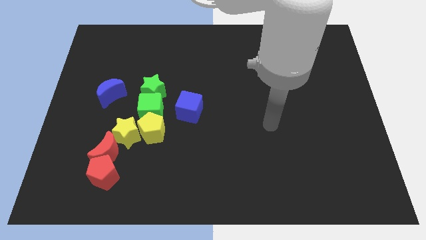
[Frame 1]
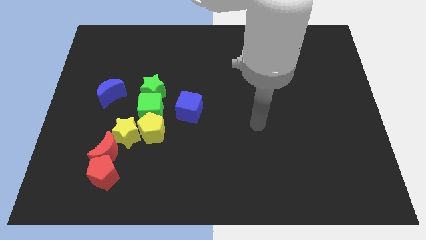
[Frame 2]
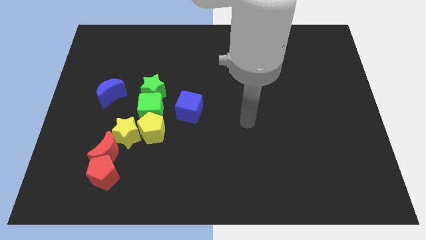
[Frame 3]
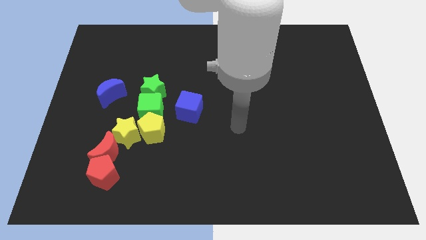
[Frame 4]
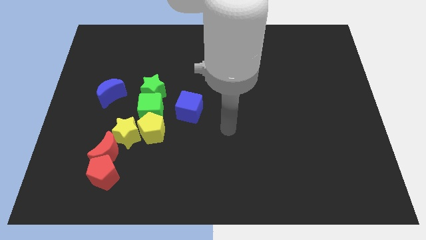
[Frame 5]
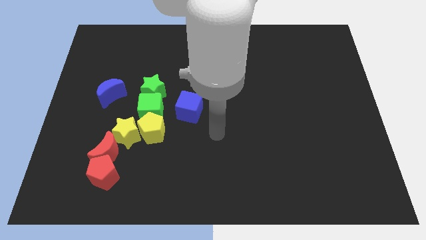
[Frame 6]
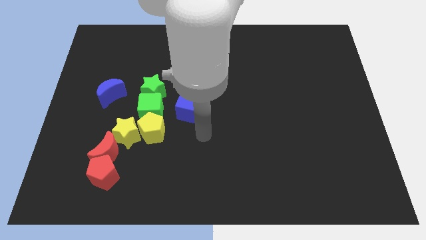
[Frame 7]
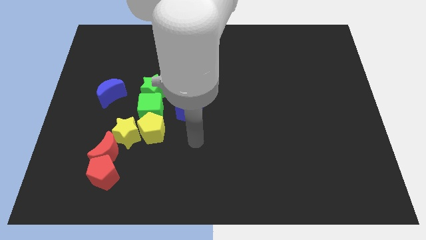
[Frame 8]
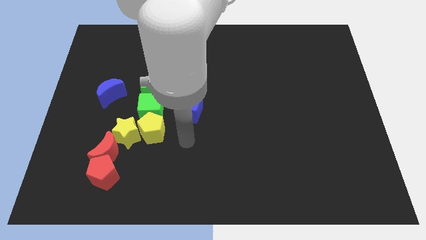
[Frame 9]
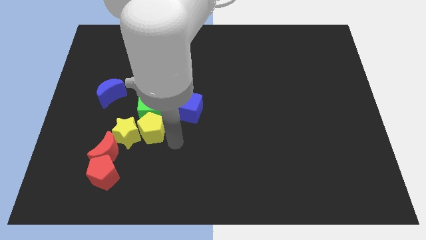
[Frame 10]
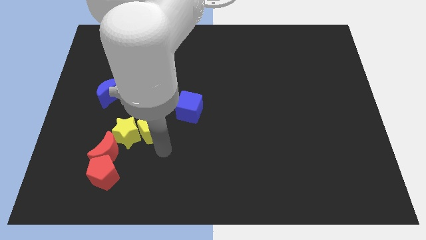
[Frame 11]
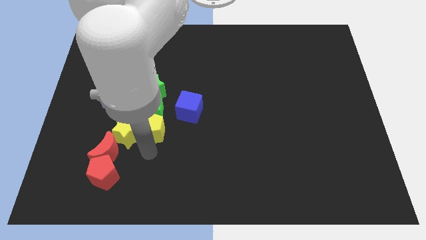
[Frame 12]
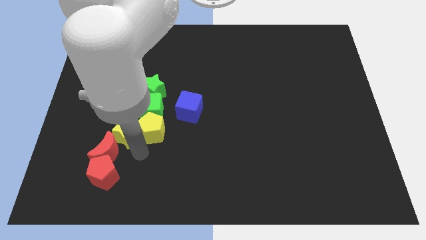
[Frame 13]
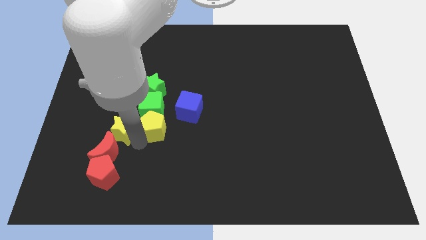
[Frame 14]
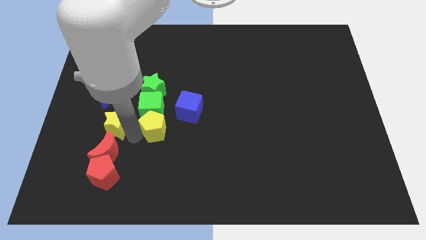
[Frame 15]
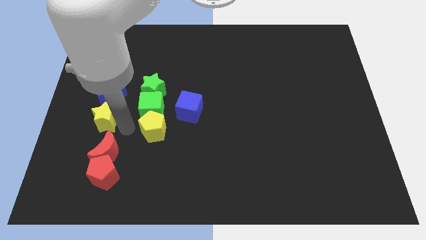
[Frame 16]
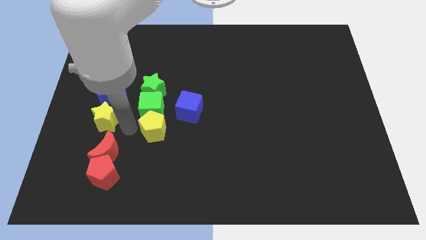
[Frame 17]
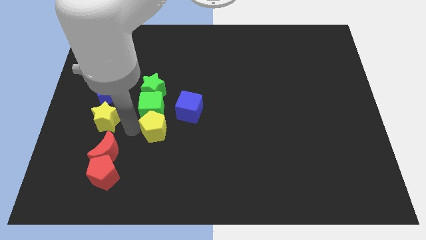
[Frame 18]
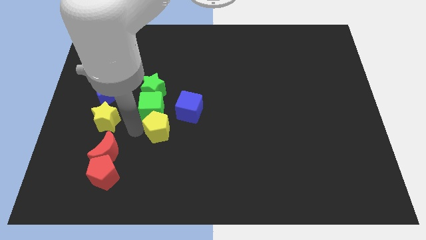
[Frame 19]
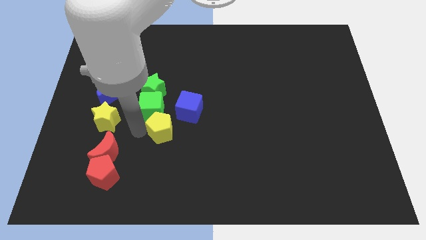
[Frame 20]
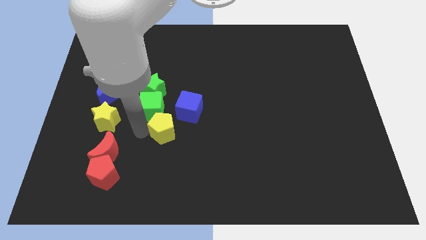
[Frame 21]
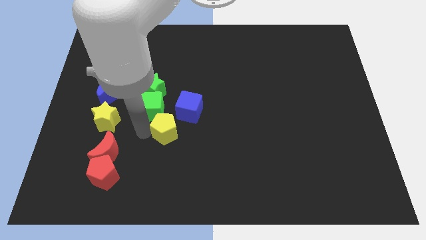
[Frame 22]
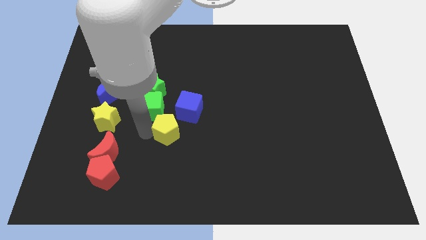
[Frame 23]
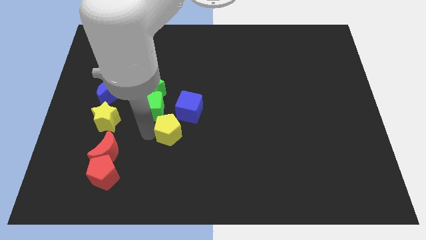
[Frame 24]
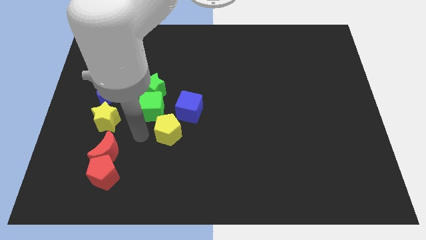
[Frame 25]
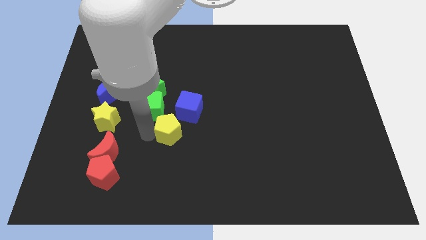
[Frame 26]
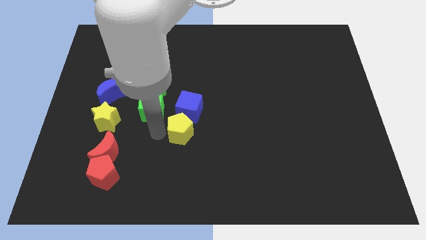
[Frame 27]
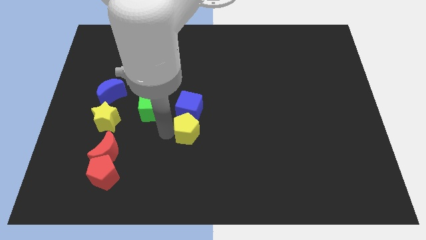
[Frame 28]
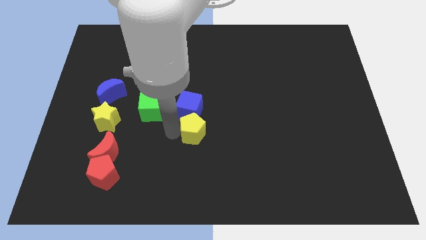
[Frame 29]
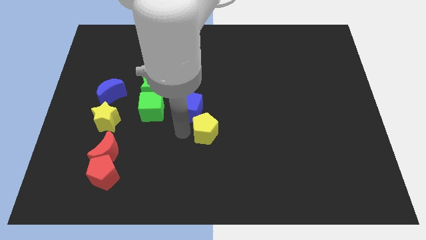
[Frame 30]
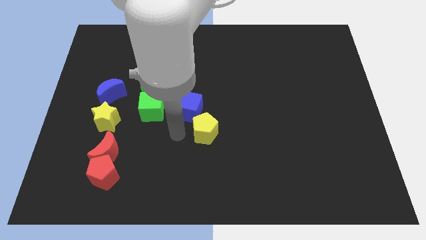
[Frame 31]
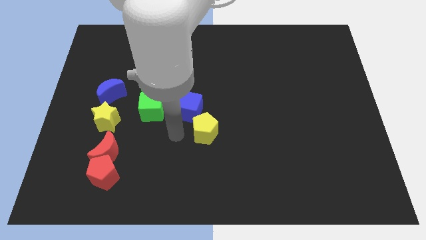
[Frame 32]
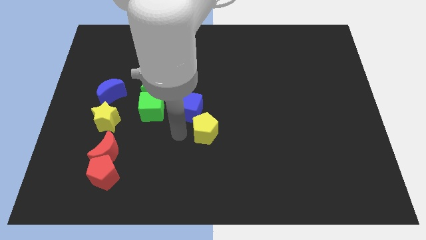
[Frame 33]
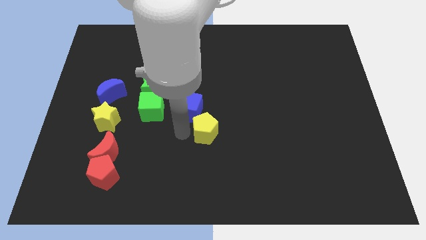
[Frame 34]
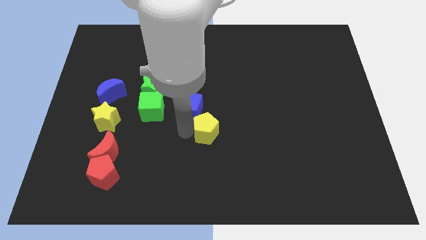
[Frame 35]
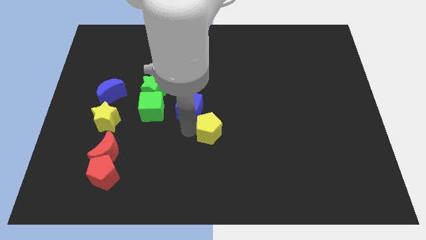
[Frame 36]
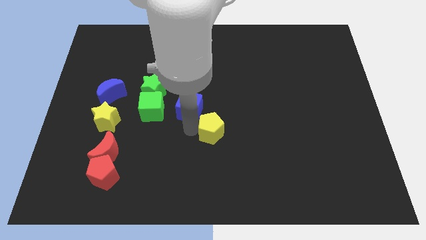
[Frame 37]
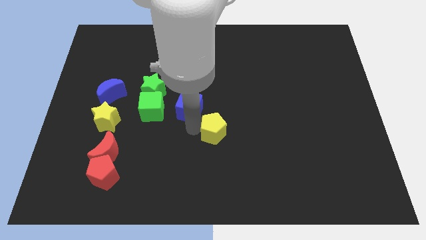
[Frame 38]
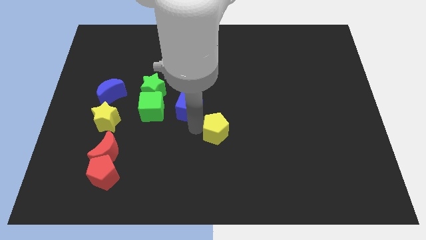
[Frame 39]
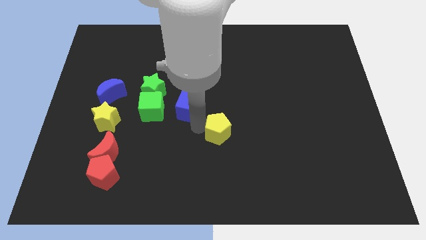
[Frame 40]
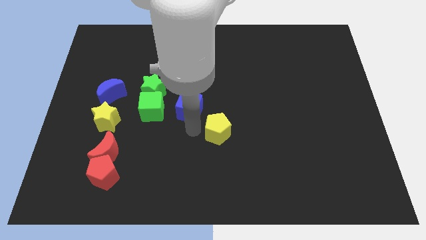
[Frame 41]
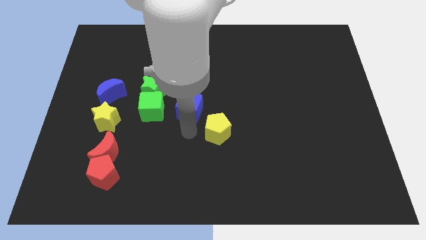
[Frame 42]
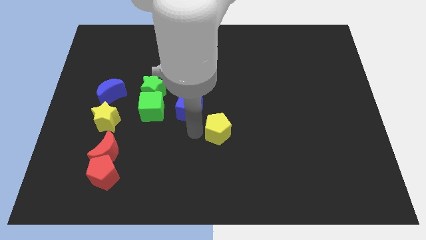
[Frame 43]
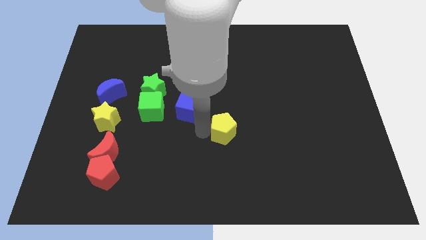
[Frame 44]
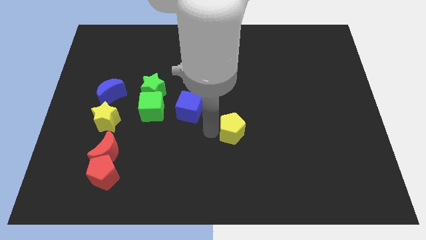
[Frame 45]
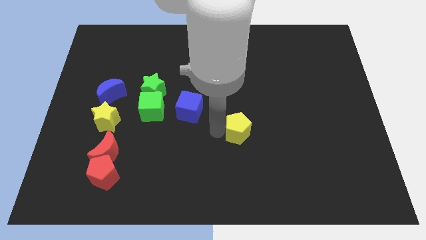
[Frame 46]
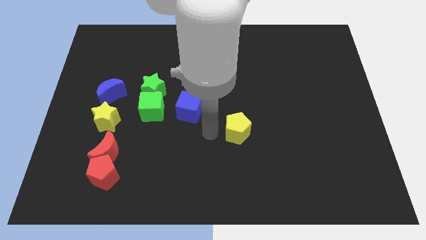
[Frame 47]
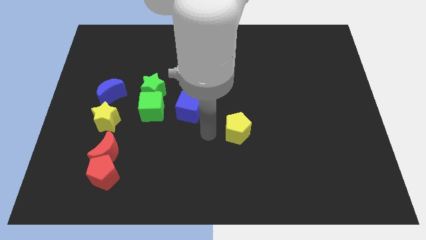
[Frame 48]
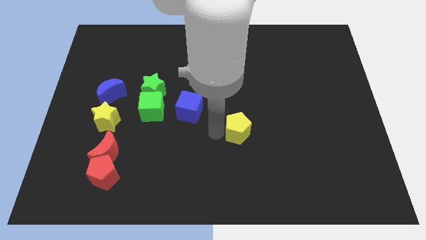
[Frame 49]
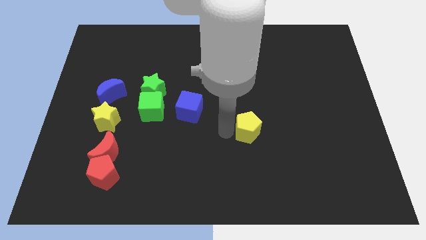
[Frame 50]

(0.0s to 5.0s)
slide the yellow pentagon right

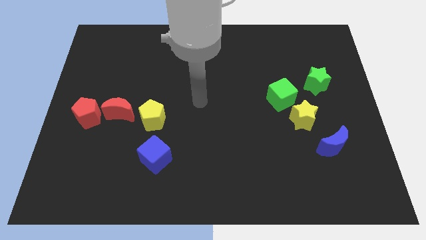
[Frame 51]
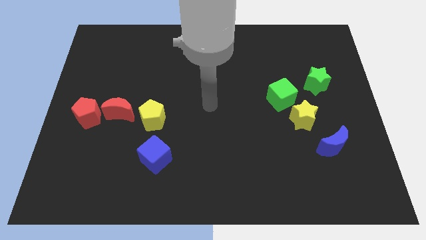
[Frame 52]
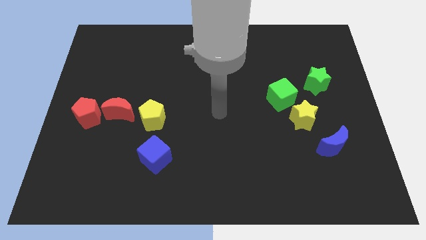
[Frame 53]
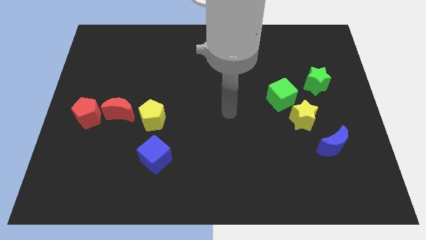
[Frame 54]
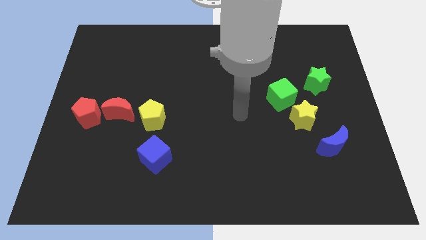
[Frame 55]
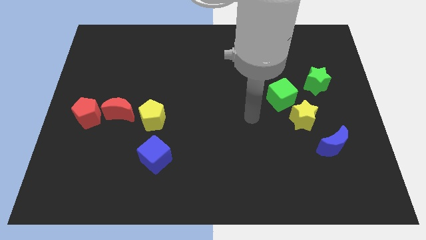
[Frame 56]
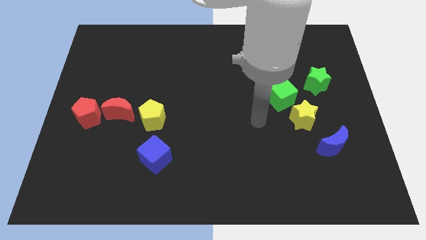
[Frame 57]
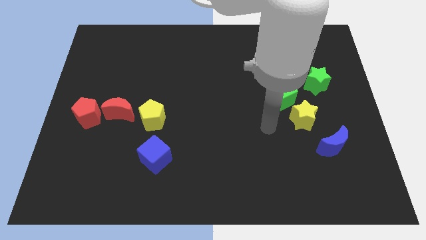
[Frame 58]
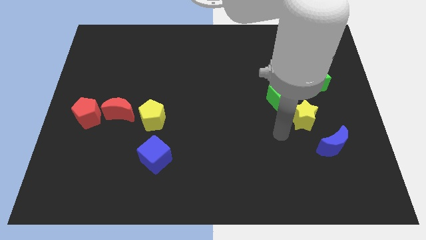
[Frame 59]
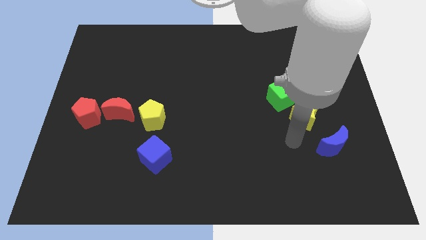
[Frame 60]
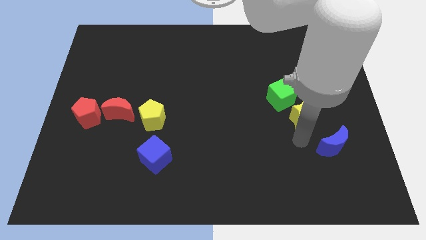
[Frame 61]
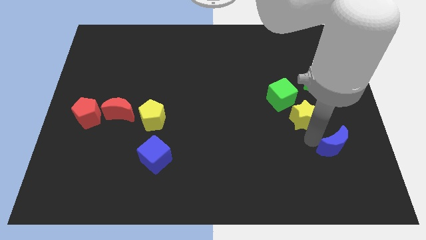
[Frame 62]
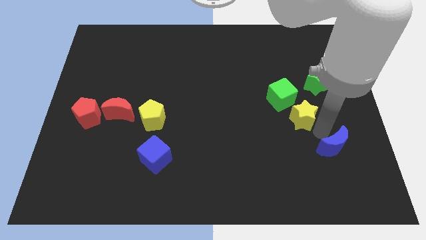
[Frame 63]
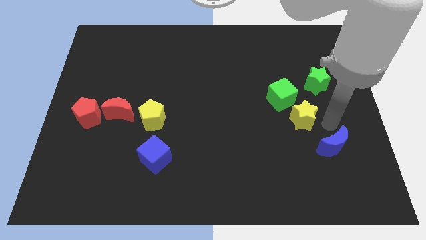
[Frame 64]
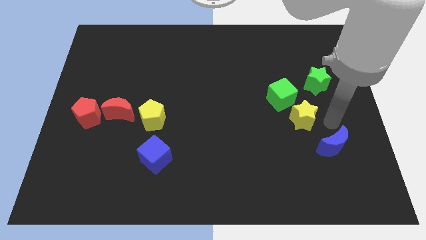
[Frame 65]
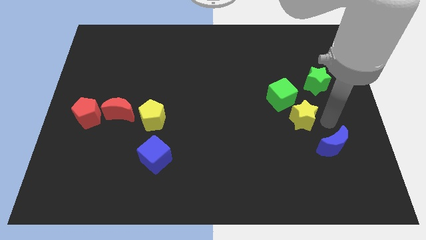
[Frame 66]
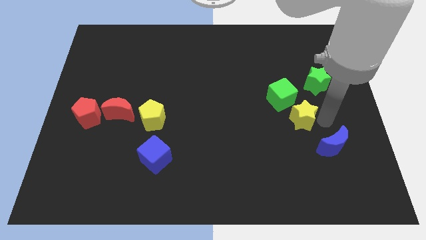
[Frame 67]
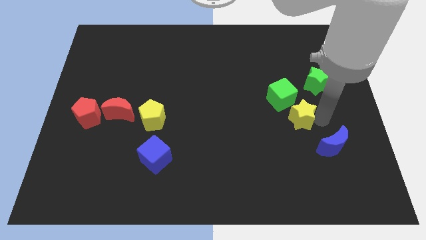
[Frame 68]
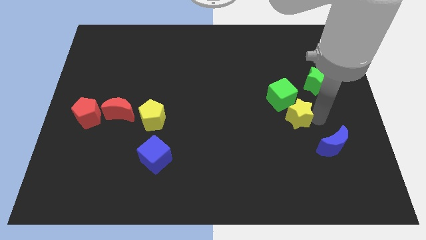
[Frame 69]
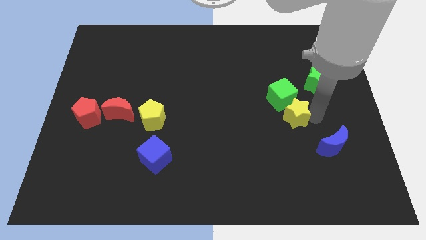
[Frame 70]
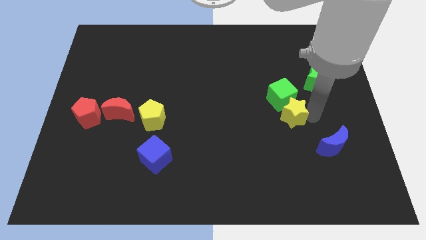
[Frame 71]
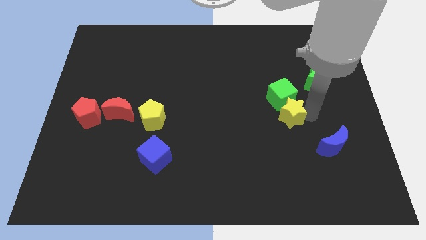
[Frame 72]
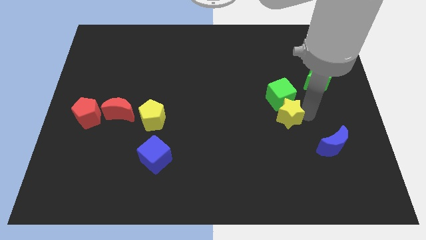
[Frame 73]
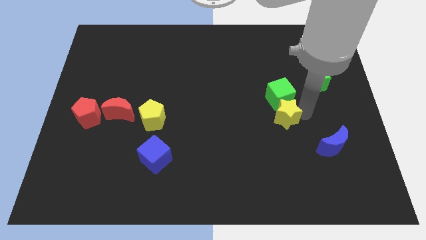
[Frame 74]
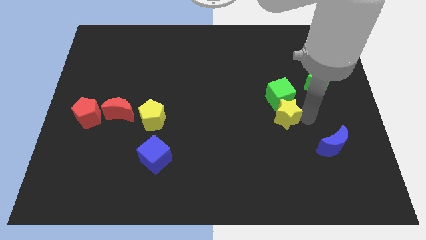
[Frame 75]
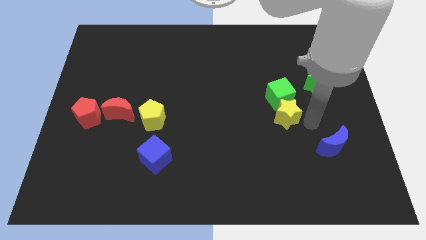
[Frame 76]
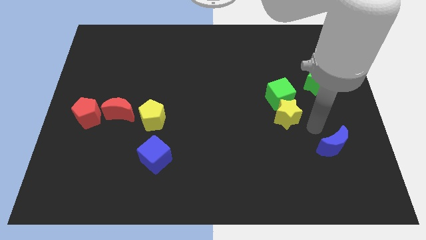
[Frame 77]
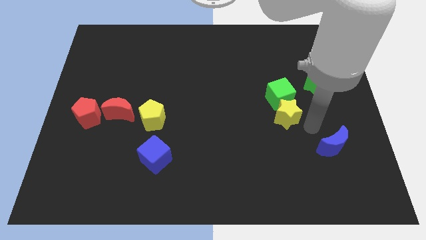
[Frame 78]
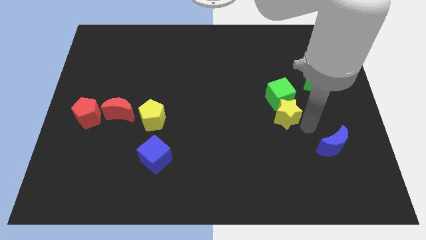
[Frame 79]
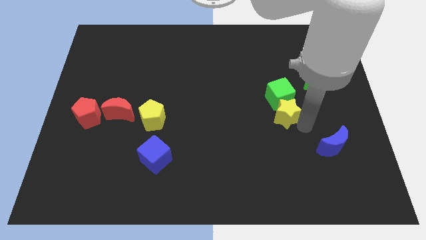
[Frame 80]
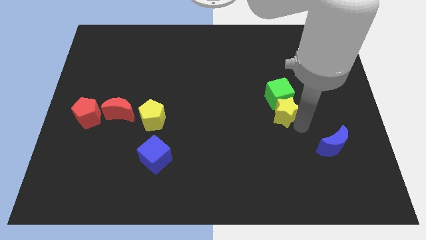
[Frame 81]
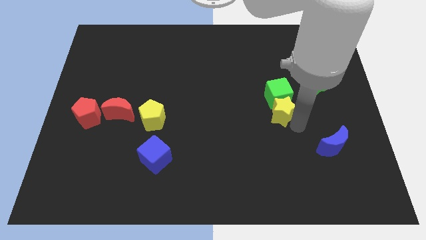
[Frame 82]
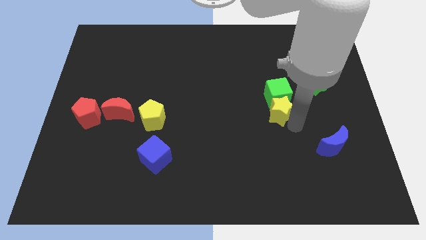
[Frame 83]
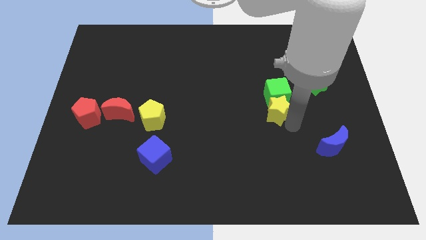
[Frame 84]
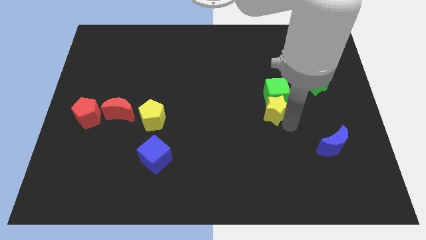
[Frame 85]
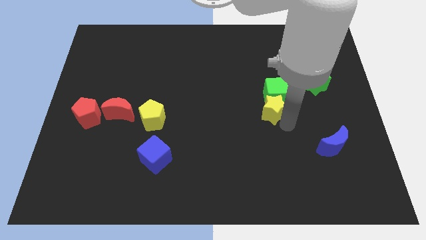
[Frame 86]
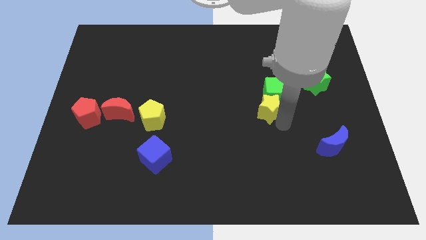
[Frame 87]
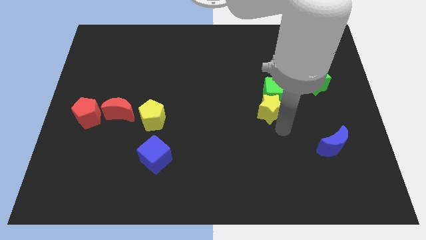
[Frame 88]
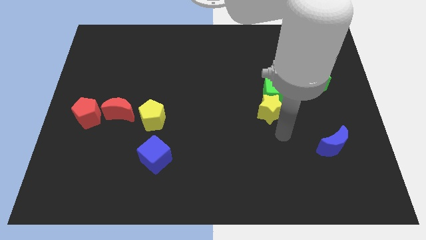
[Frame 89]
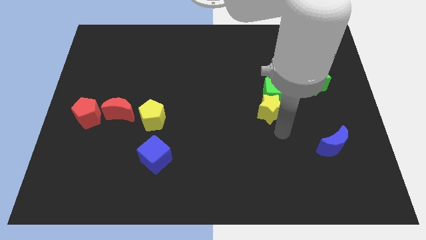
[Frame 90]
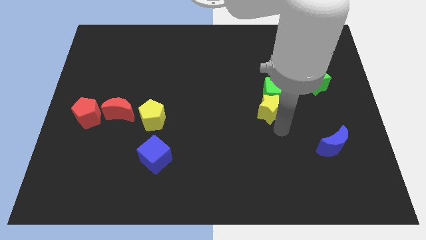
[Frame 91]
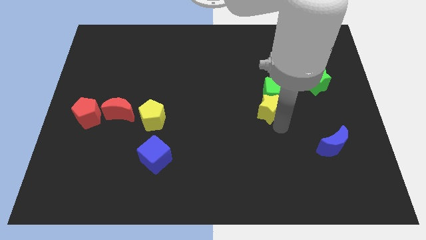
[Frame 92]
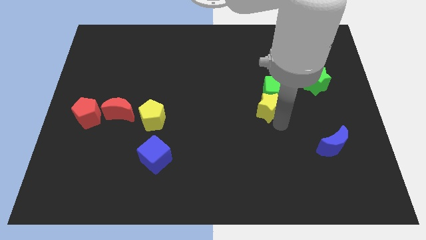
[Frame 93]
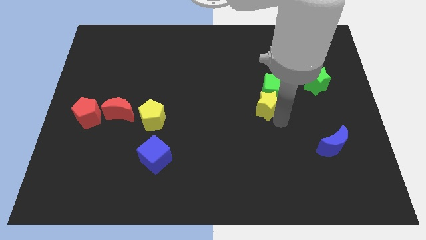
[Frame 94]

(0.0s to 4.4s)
slide the yellow star up and then to the left somewhat
